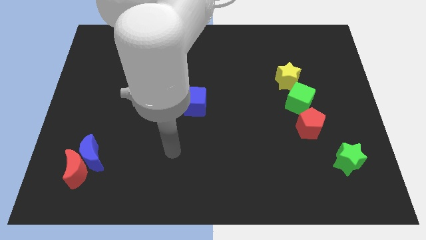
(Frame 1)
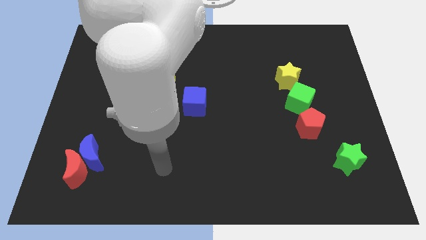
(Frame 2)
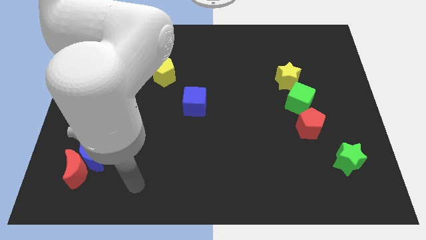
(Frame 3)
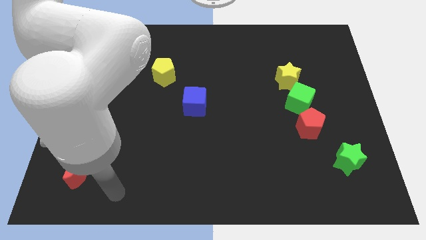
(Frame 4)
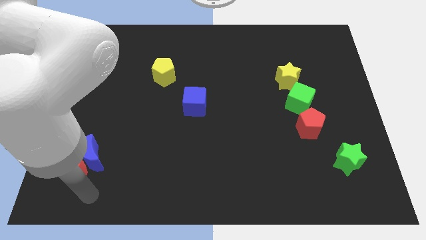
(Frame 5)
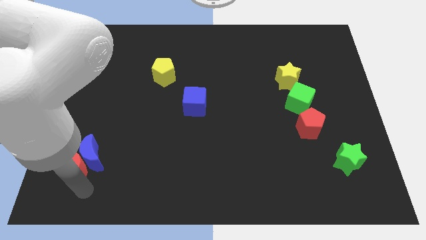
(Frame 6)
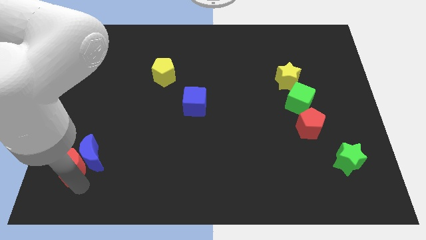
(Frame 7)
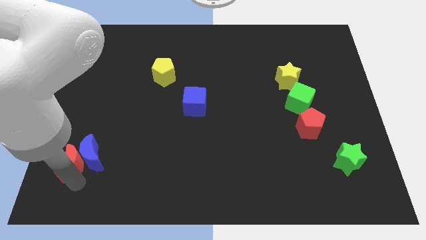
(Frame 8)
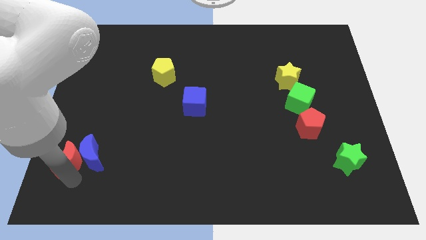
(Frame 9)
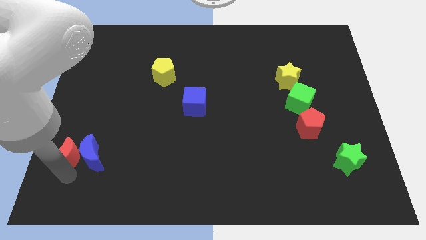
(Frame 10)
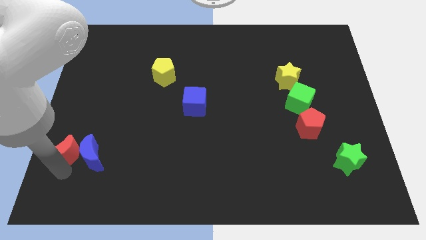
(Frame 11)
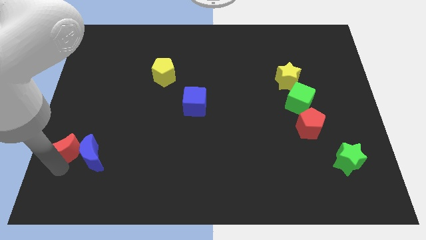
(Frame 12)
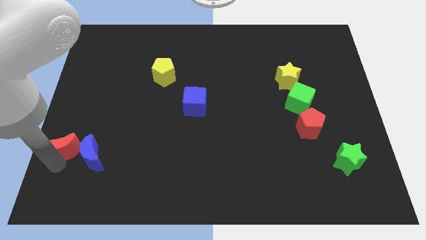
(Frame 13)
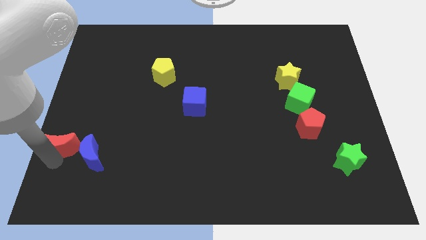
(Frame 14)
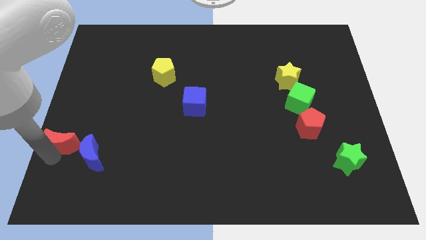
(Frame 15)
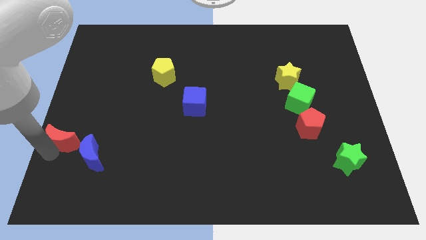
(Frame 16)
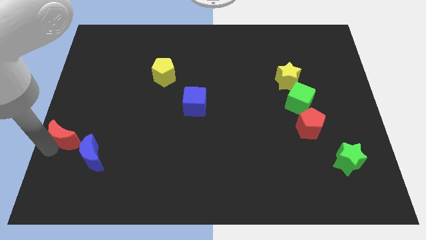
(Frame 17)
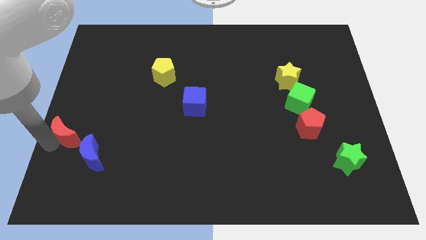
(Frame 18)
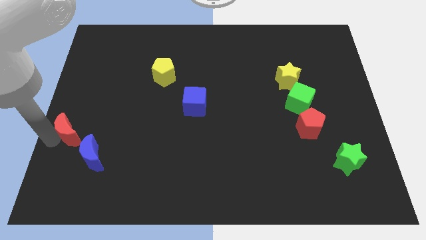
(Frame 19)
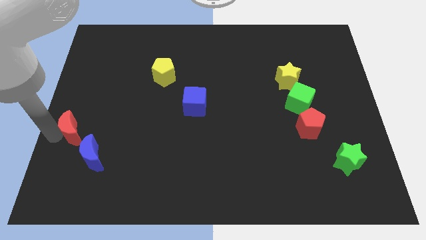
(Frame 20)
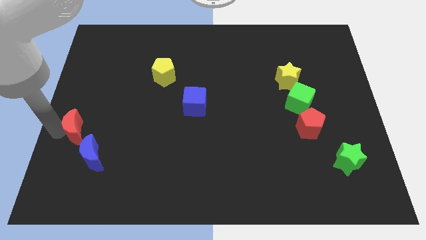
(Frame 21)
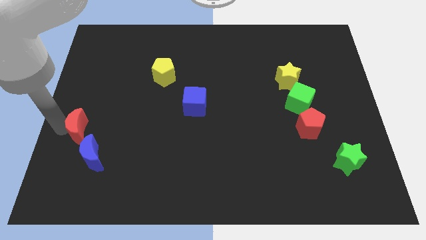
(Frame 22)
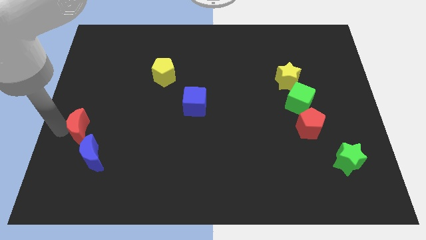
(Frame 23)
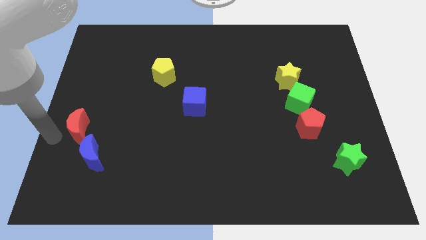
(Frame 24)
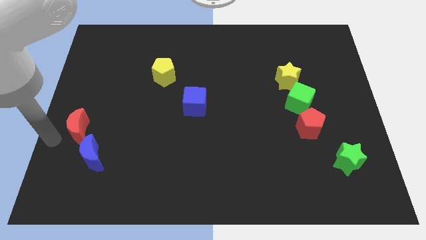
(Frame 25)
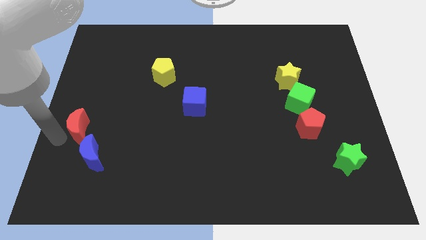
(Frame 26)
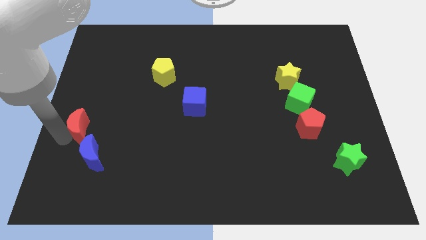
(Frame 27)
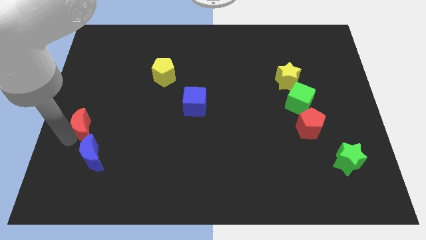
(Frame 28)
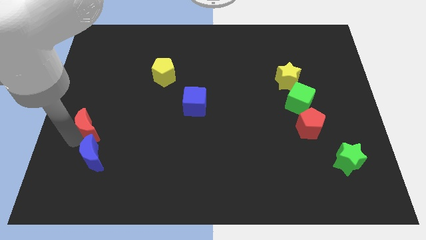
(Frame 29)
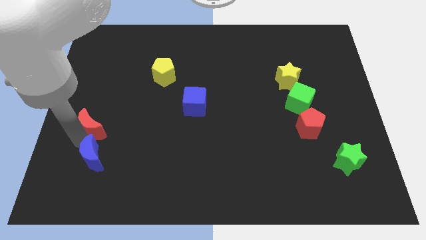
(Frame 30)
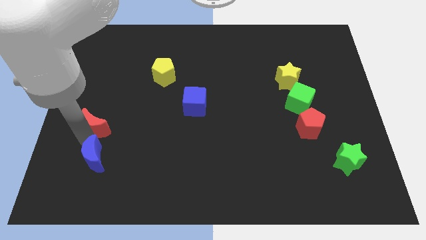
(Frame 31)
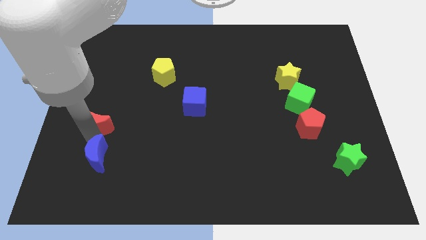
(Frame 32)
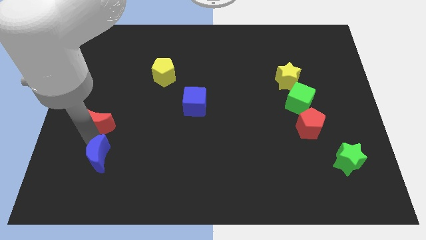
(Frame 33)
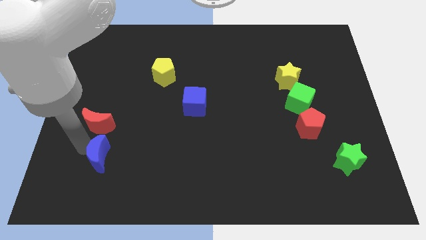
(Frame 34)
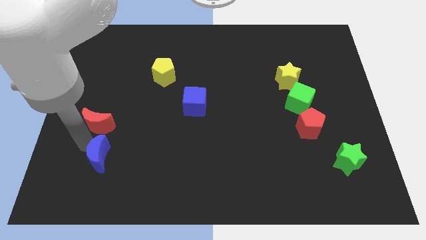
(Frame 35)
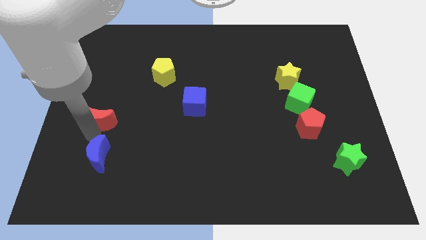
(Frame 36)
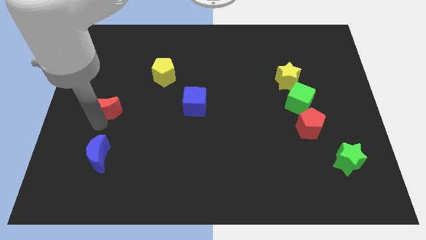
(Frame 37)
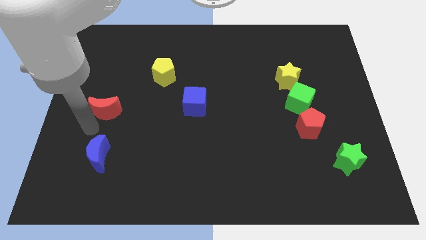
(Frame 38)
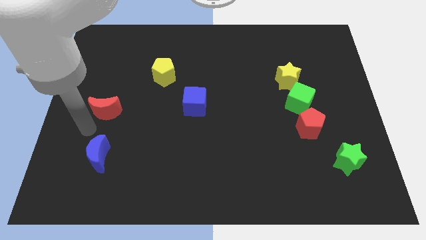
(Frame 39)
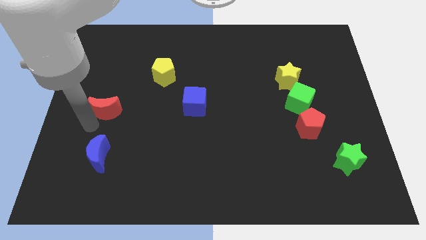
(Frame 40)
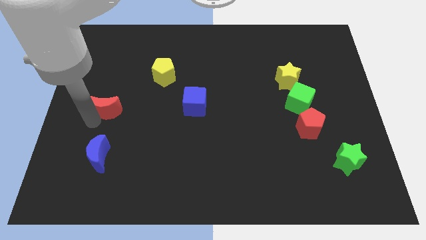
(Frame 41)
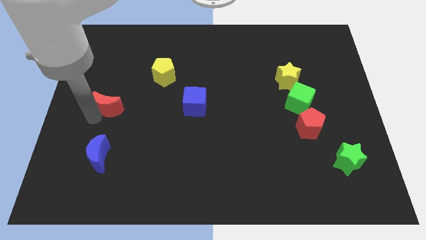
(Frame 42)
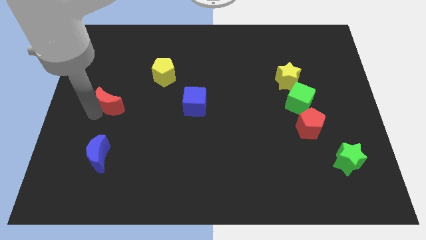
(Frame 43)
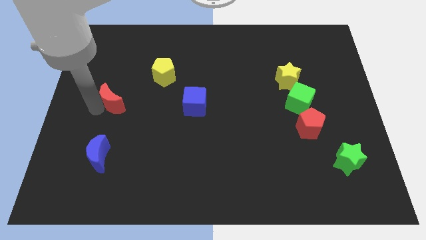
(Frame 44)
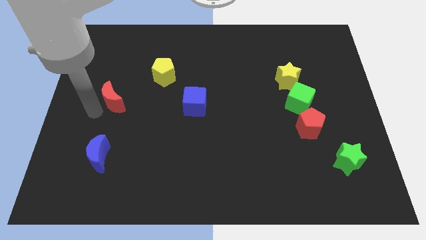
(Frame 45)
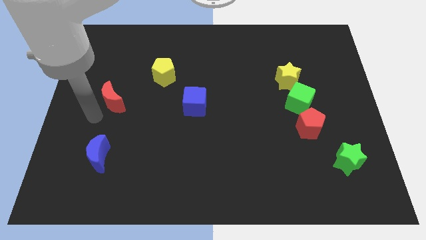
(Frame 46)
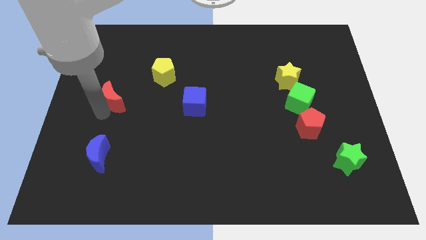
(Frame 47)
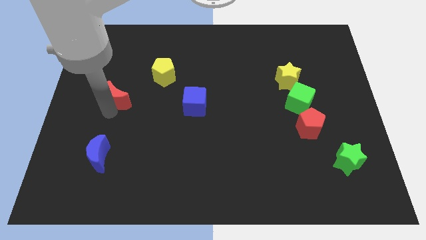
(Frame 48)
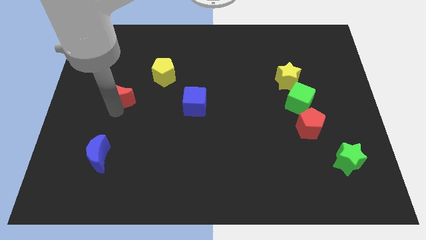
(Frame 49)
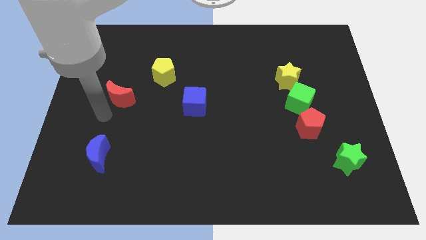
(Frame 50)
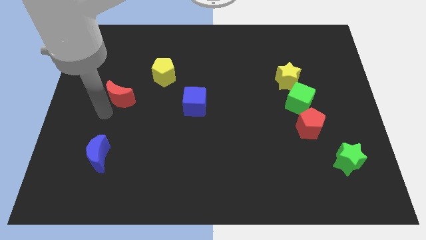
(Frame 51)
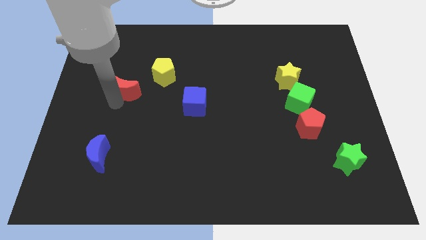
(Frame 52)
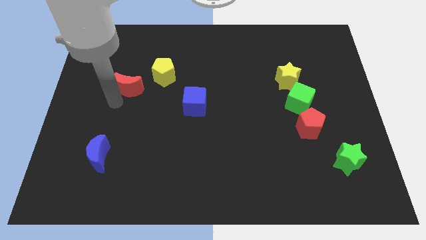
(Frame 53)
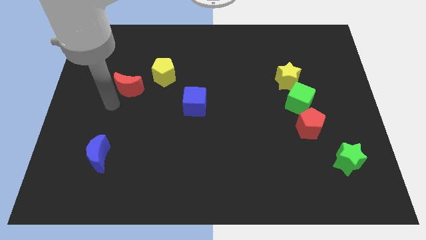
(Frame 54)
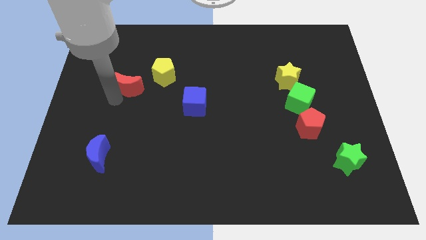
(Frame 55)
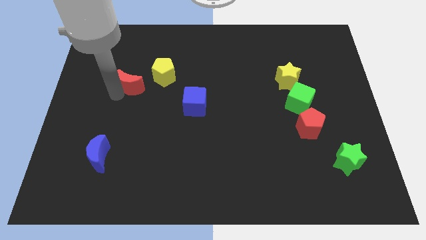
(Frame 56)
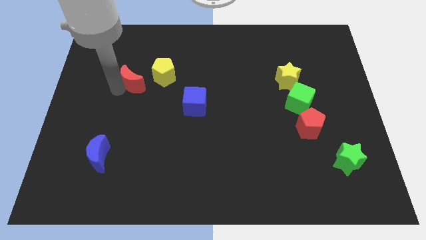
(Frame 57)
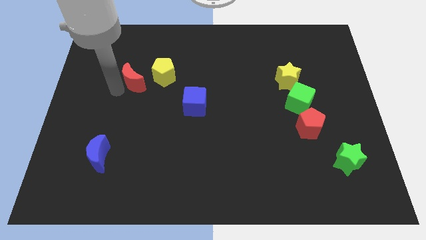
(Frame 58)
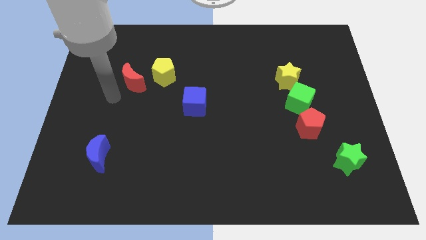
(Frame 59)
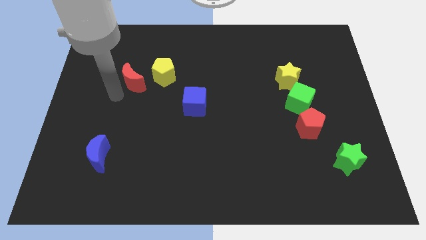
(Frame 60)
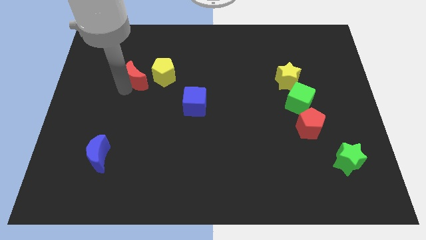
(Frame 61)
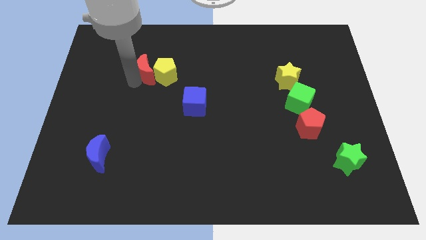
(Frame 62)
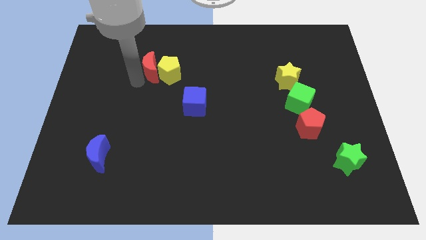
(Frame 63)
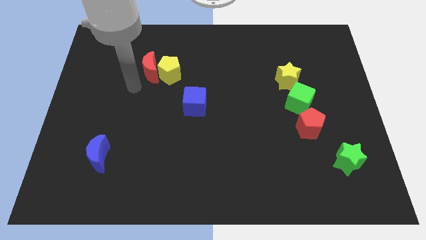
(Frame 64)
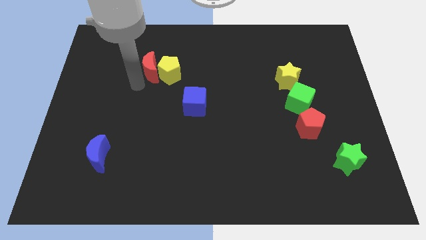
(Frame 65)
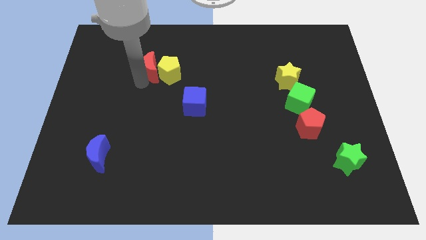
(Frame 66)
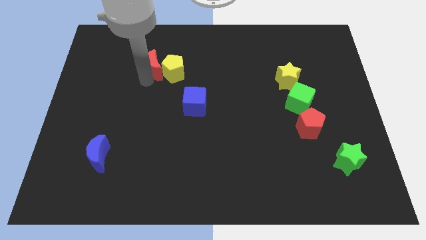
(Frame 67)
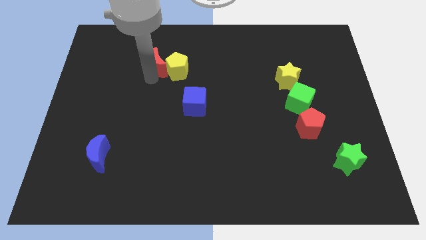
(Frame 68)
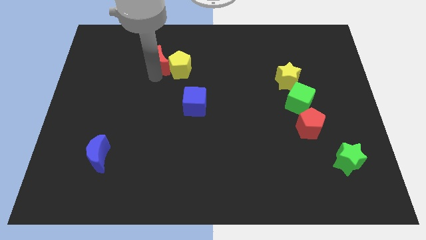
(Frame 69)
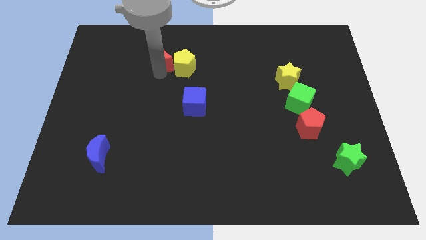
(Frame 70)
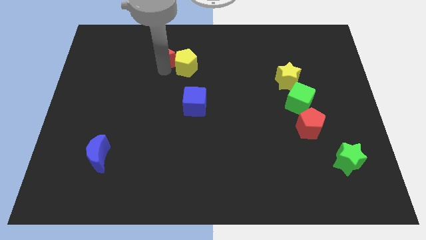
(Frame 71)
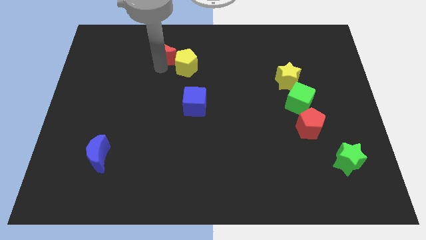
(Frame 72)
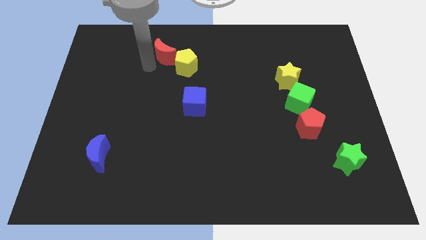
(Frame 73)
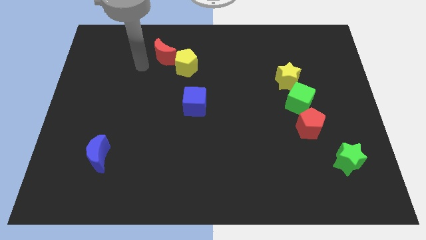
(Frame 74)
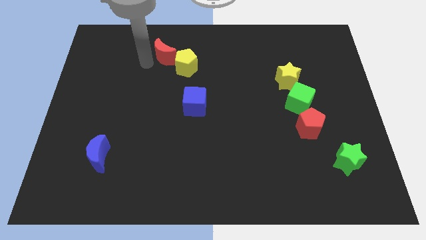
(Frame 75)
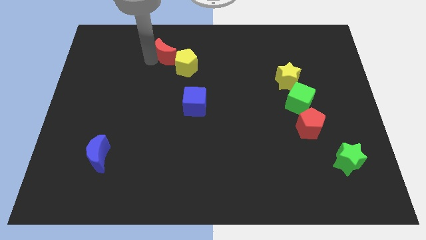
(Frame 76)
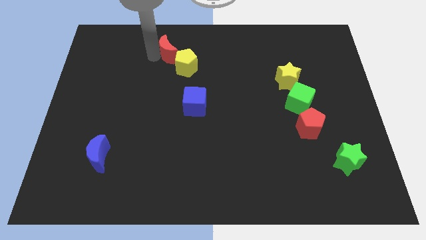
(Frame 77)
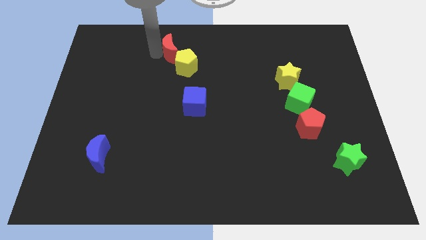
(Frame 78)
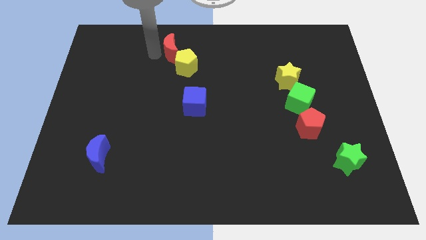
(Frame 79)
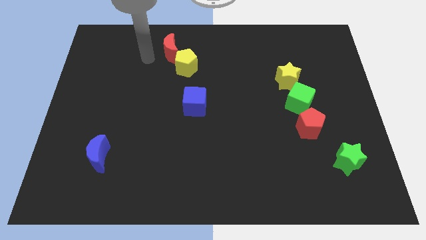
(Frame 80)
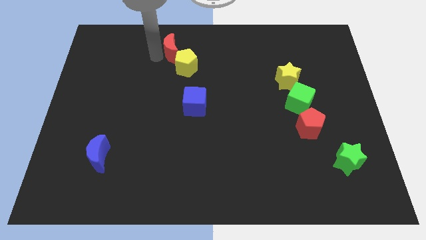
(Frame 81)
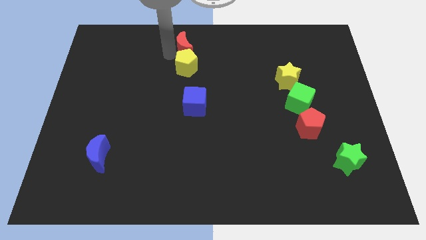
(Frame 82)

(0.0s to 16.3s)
move the red moon to the towards your base
